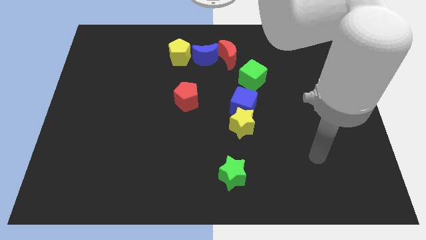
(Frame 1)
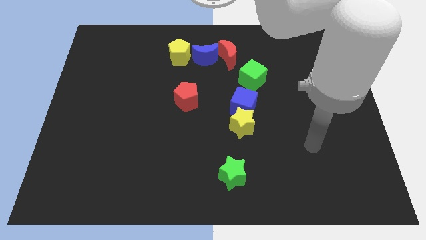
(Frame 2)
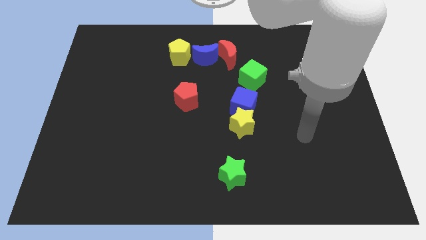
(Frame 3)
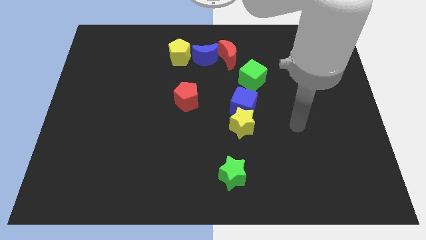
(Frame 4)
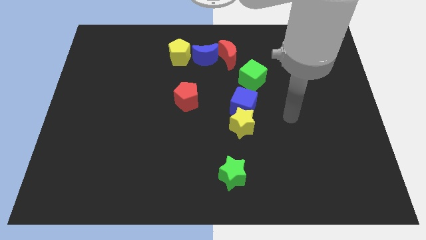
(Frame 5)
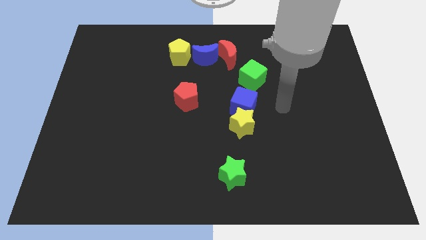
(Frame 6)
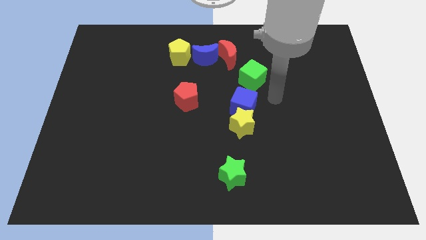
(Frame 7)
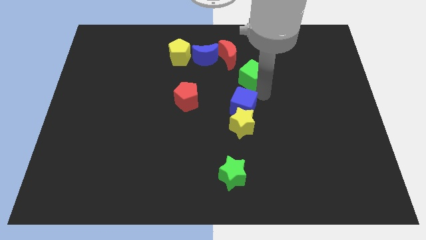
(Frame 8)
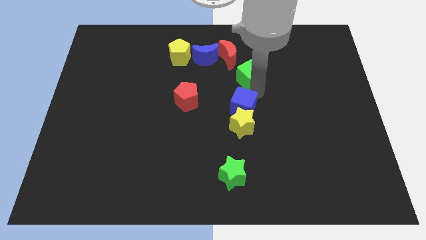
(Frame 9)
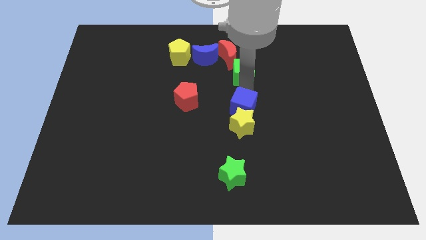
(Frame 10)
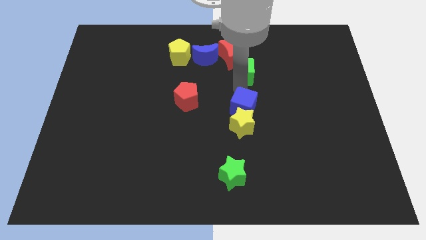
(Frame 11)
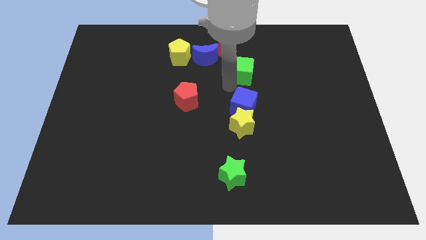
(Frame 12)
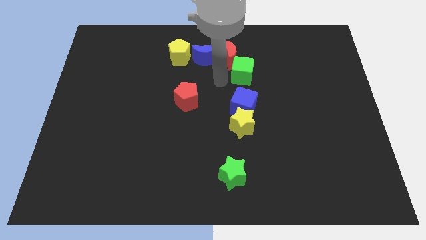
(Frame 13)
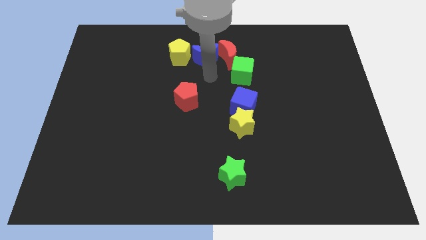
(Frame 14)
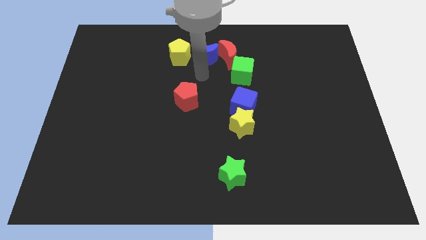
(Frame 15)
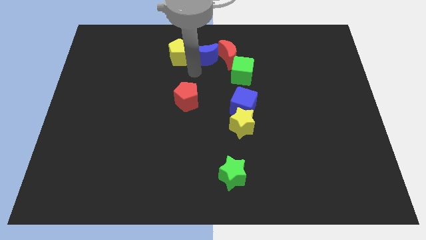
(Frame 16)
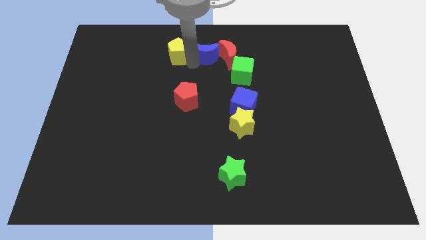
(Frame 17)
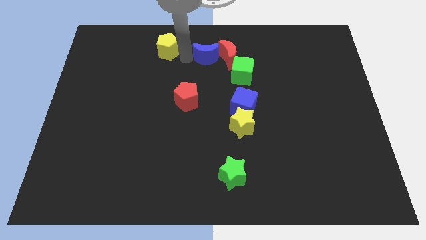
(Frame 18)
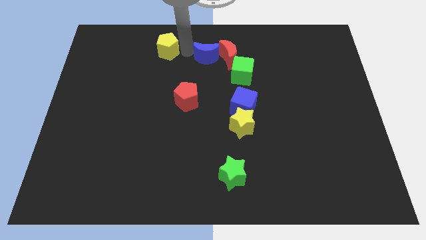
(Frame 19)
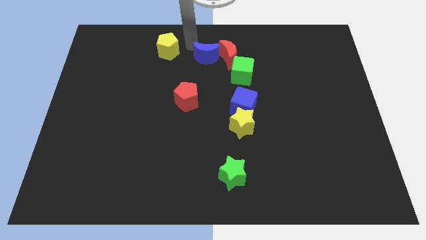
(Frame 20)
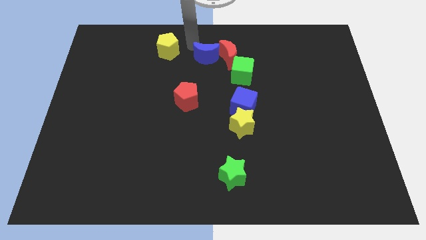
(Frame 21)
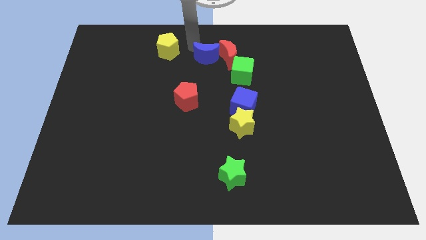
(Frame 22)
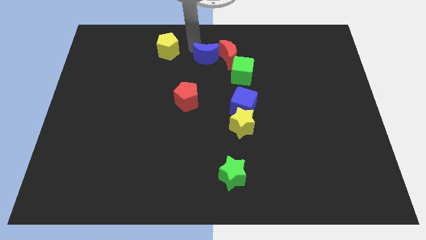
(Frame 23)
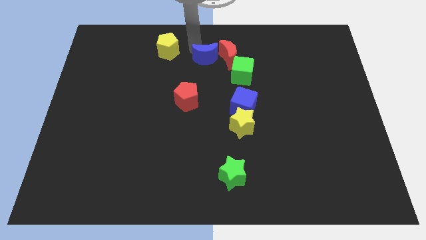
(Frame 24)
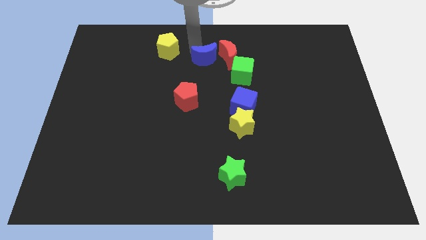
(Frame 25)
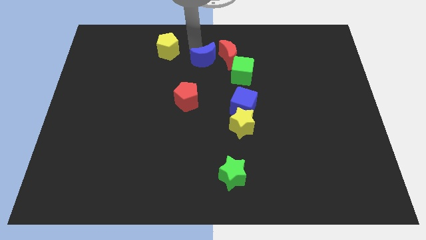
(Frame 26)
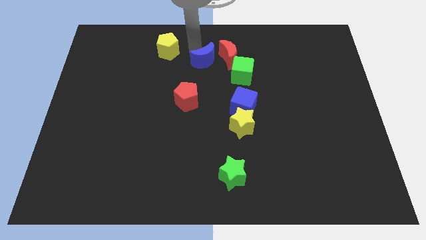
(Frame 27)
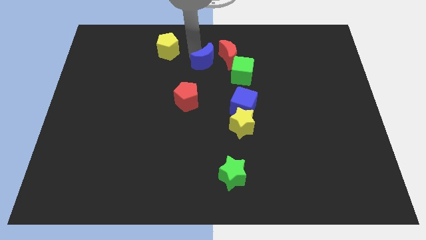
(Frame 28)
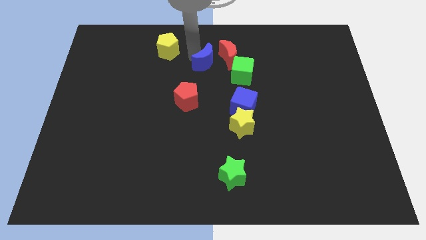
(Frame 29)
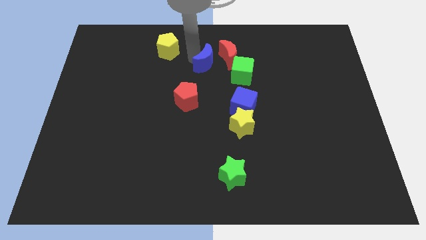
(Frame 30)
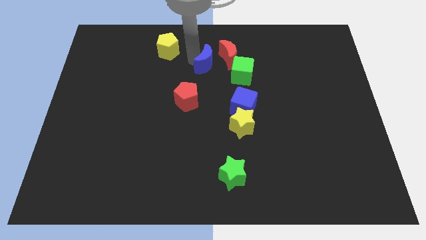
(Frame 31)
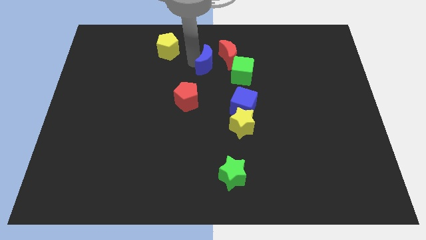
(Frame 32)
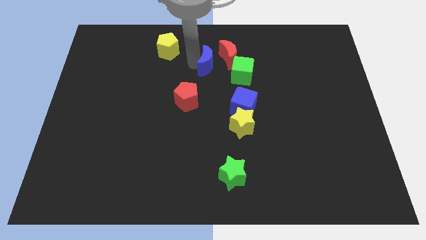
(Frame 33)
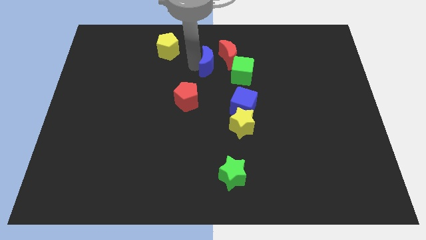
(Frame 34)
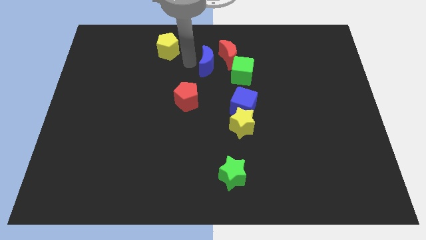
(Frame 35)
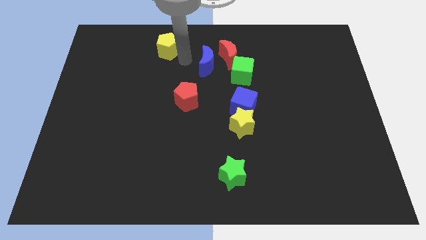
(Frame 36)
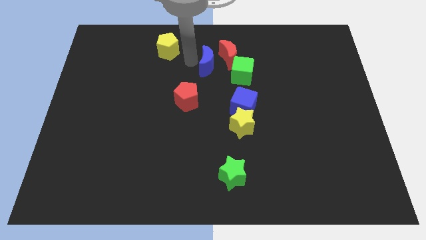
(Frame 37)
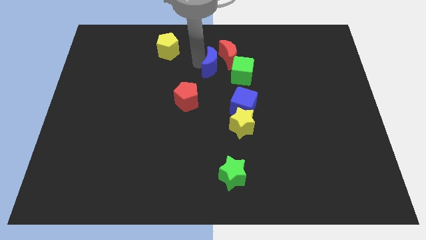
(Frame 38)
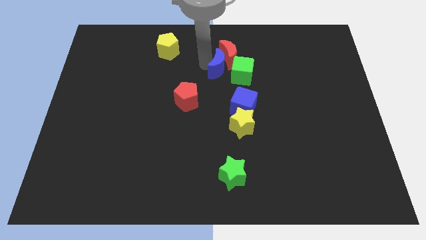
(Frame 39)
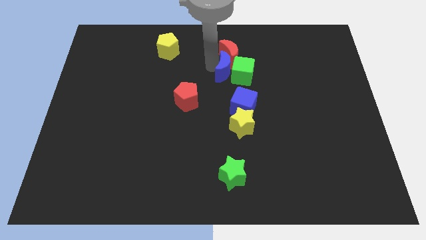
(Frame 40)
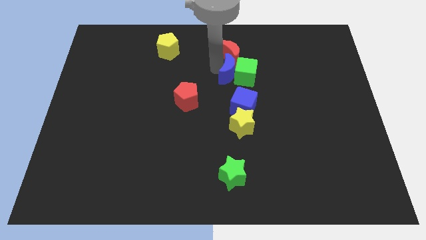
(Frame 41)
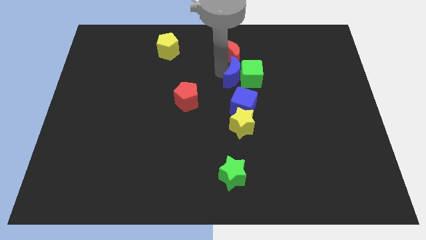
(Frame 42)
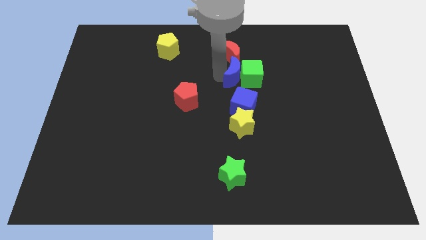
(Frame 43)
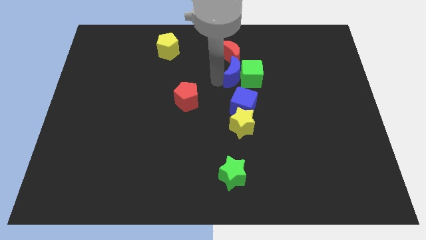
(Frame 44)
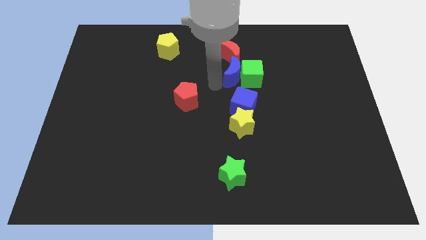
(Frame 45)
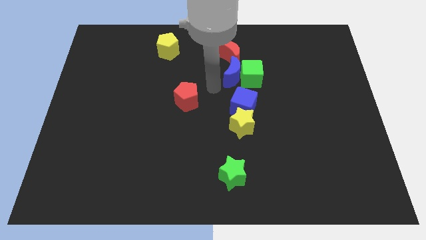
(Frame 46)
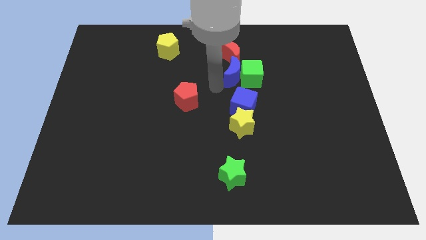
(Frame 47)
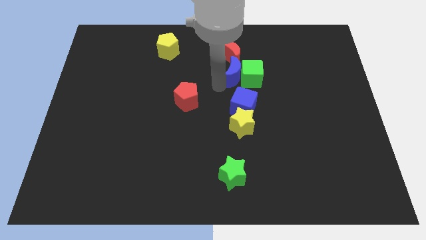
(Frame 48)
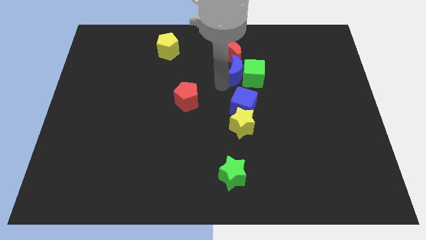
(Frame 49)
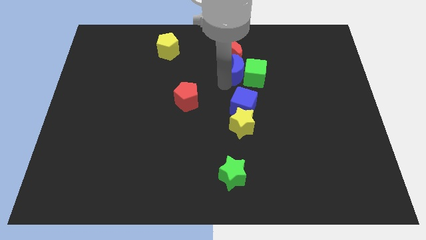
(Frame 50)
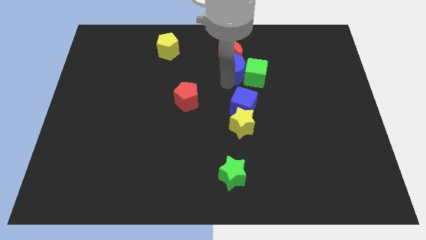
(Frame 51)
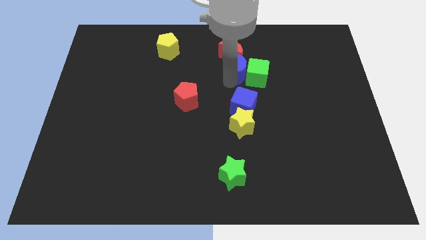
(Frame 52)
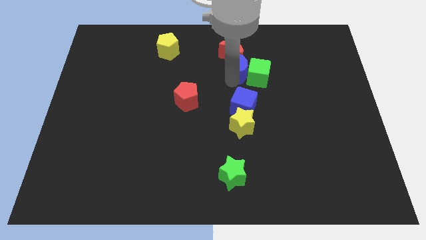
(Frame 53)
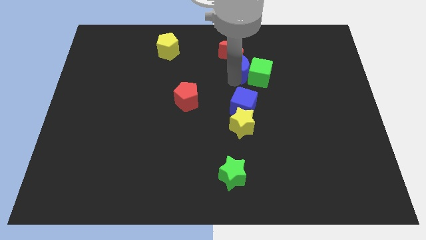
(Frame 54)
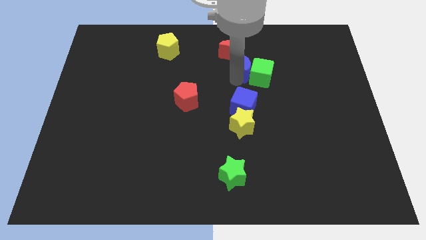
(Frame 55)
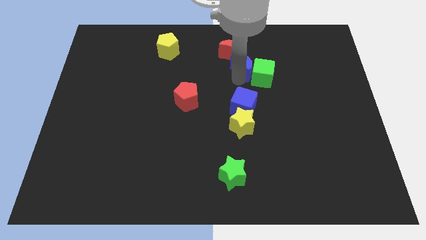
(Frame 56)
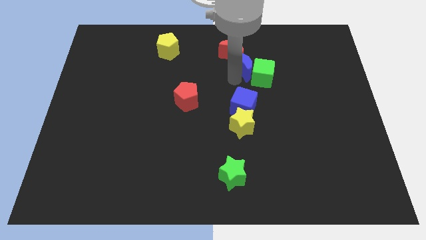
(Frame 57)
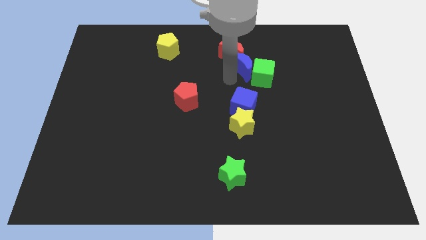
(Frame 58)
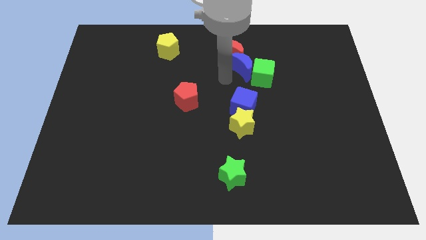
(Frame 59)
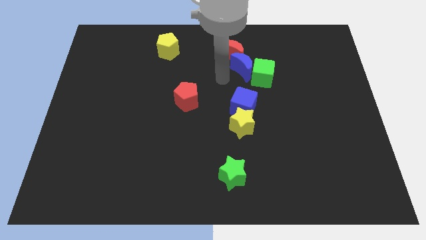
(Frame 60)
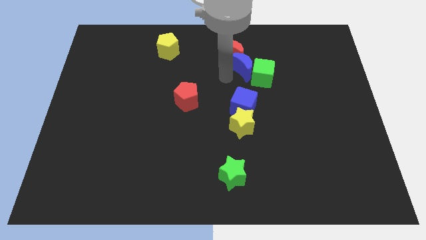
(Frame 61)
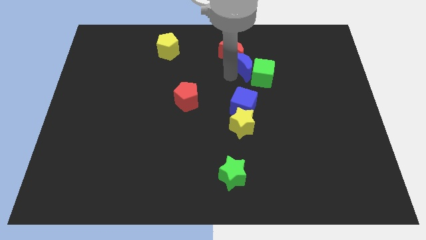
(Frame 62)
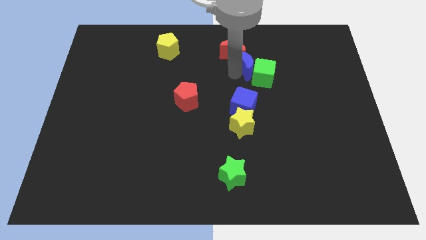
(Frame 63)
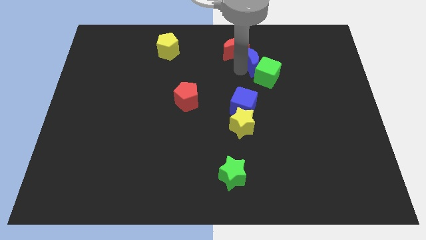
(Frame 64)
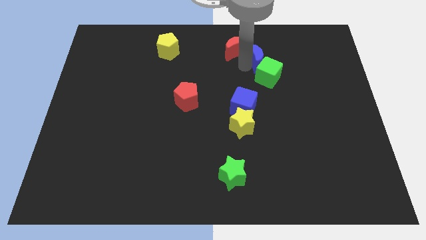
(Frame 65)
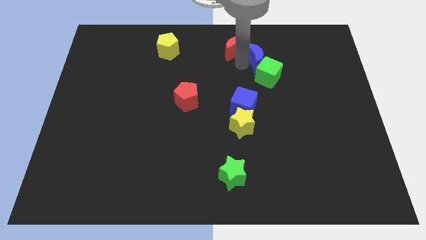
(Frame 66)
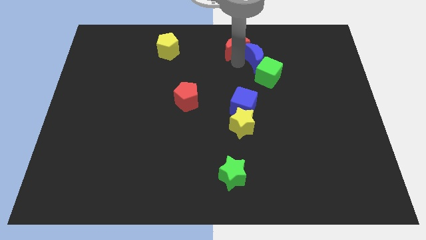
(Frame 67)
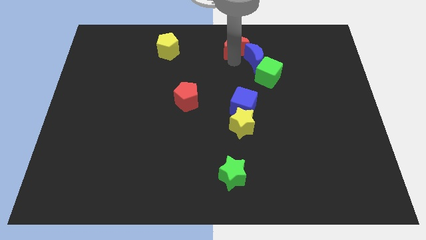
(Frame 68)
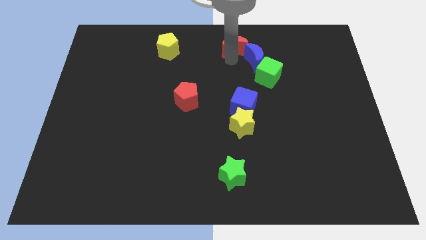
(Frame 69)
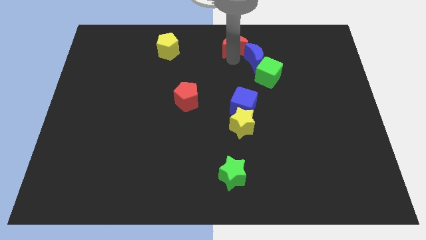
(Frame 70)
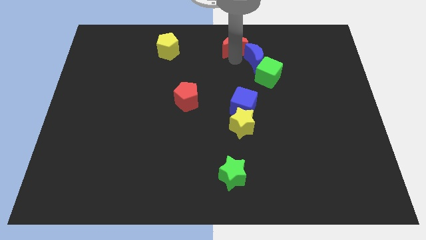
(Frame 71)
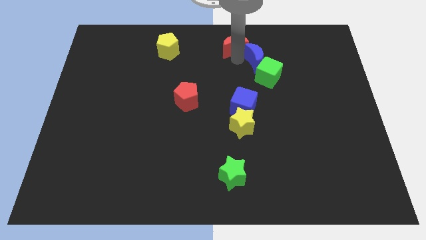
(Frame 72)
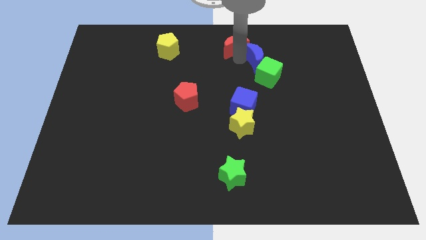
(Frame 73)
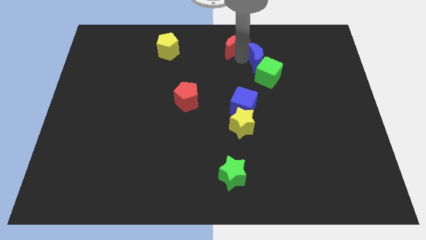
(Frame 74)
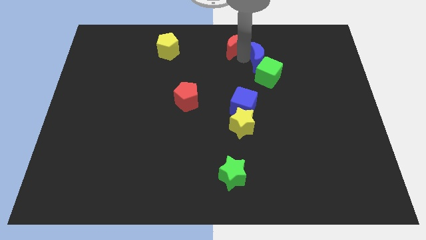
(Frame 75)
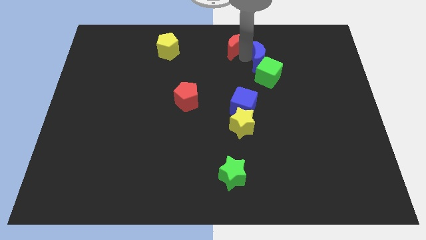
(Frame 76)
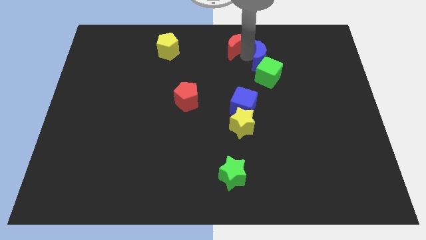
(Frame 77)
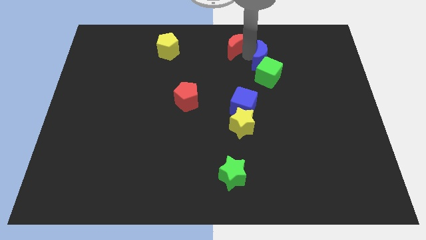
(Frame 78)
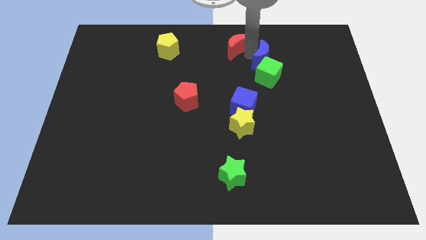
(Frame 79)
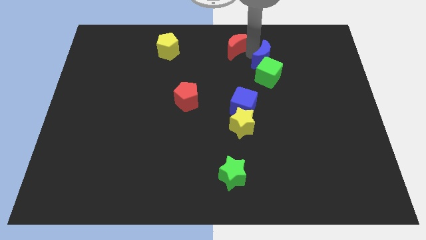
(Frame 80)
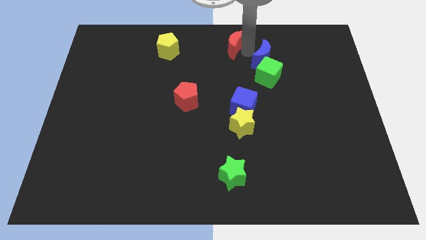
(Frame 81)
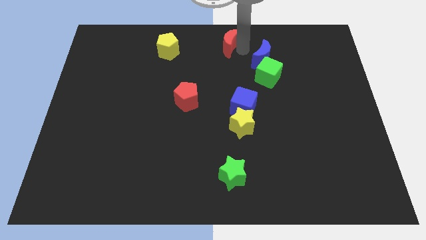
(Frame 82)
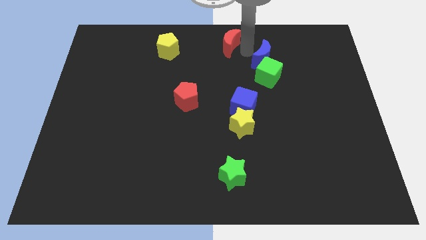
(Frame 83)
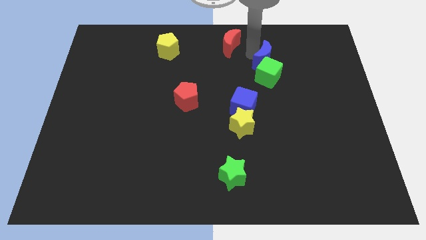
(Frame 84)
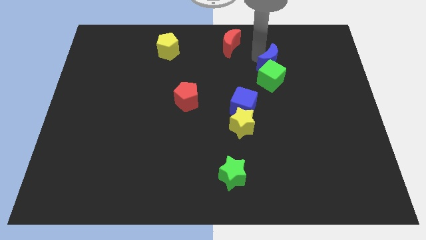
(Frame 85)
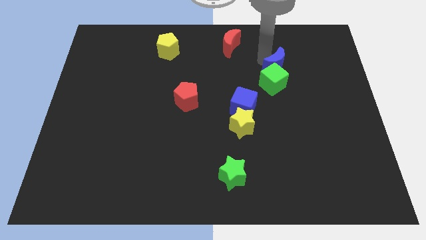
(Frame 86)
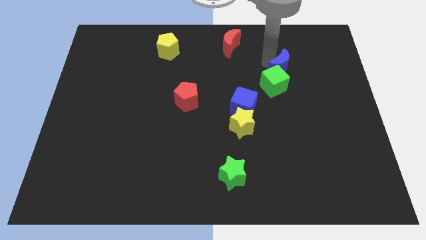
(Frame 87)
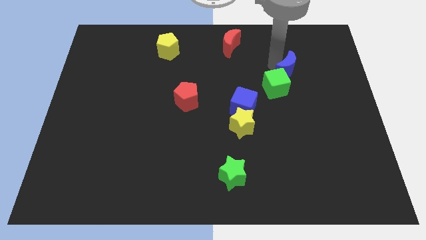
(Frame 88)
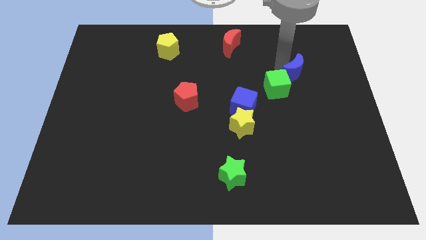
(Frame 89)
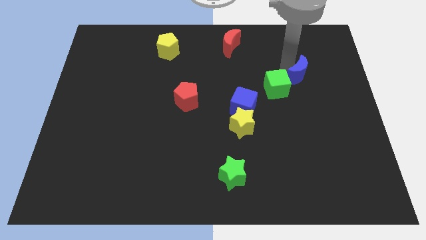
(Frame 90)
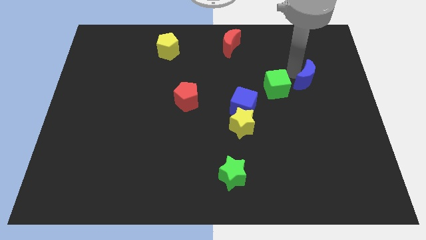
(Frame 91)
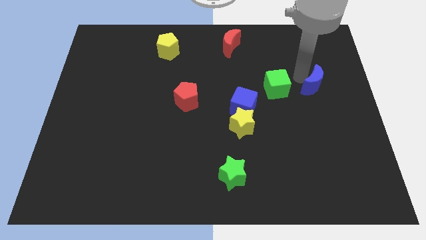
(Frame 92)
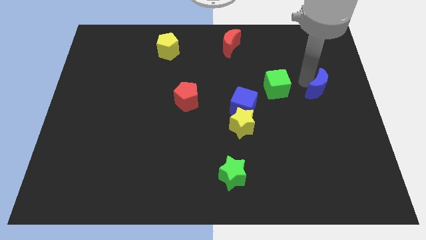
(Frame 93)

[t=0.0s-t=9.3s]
push the blue moon to the right side of the board
